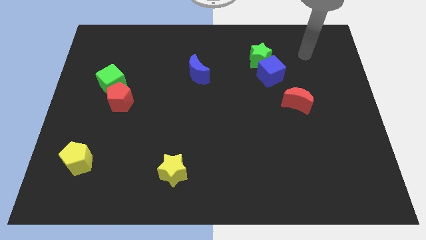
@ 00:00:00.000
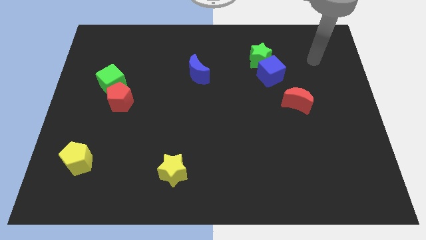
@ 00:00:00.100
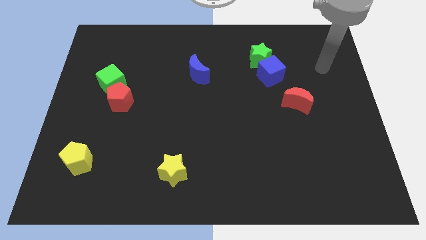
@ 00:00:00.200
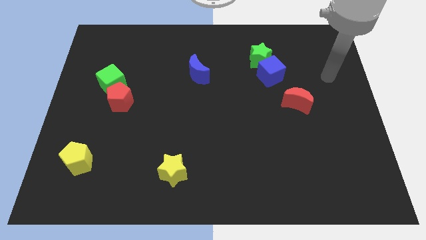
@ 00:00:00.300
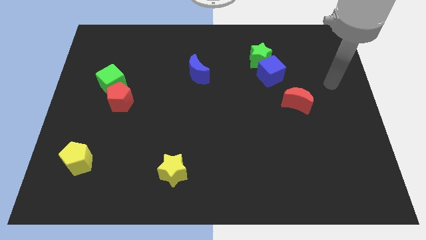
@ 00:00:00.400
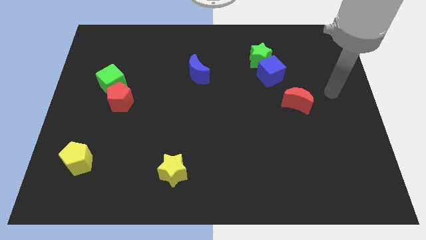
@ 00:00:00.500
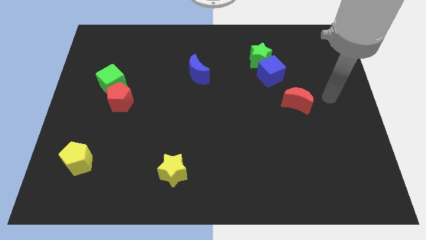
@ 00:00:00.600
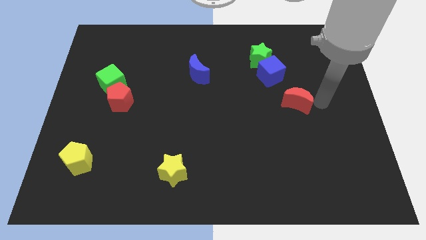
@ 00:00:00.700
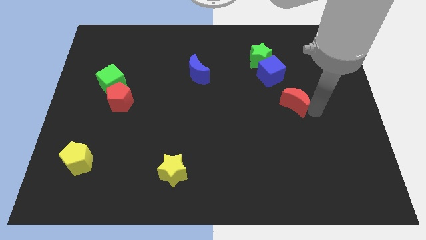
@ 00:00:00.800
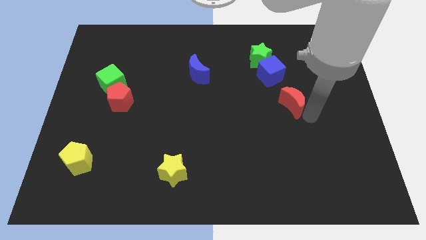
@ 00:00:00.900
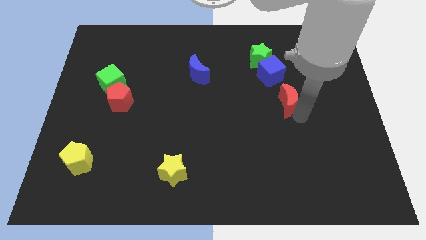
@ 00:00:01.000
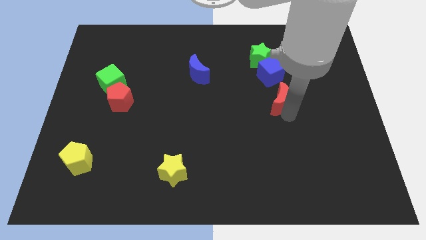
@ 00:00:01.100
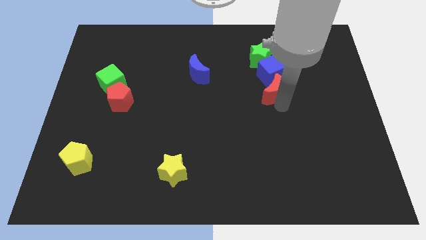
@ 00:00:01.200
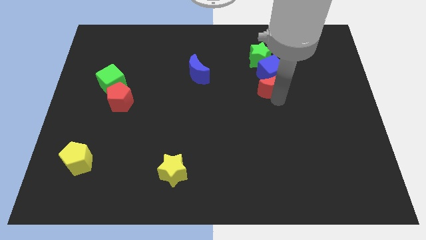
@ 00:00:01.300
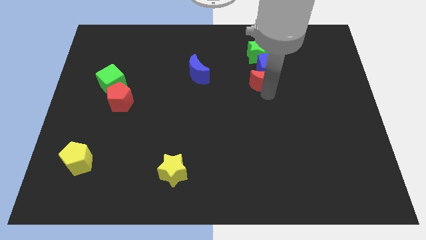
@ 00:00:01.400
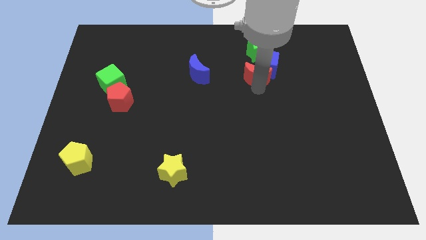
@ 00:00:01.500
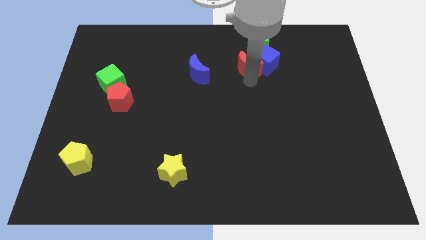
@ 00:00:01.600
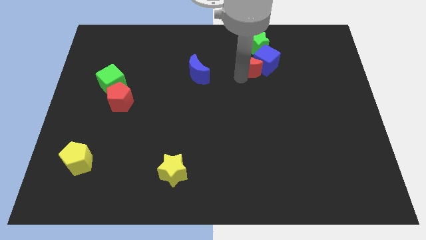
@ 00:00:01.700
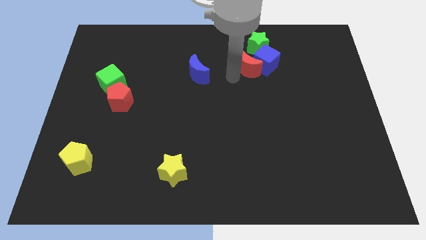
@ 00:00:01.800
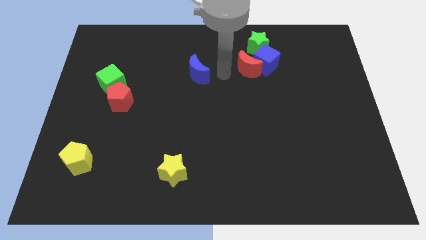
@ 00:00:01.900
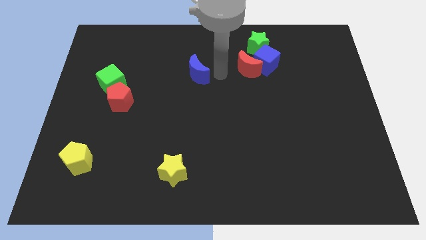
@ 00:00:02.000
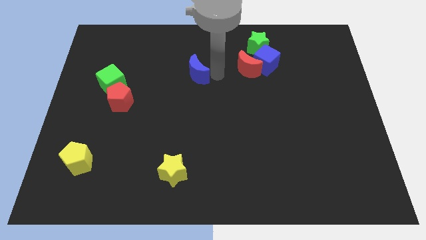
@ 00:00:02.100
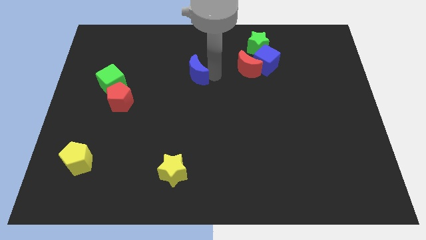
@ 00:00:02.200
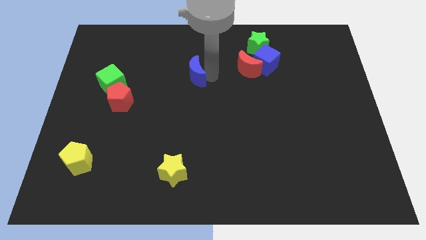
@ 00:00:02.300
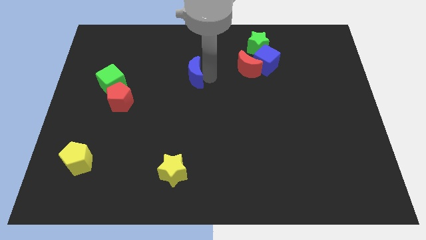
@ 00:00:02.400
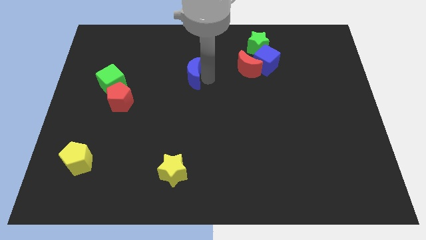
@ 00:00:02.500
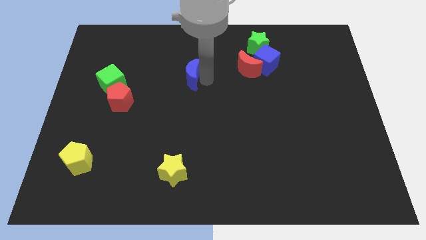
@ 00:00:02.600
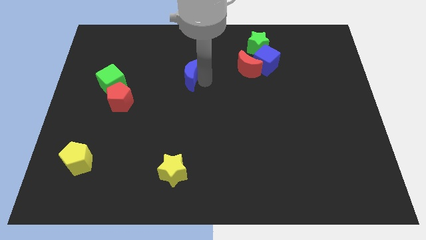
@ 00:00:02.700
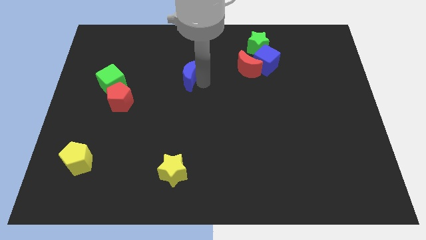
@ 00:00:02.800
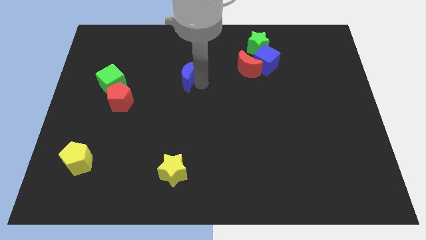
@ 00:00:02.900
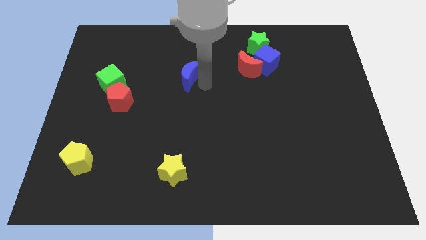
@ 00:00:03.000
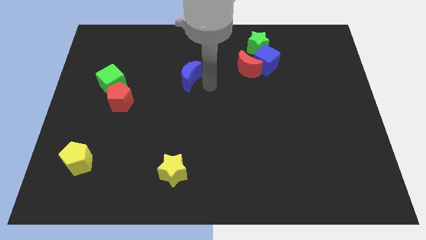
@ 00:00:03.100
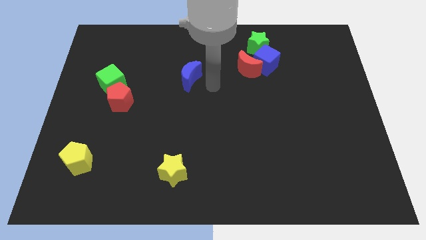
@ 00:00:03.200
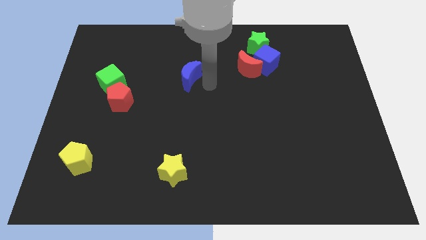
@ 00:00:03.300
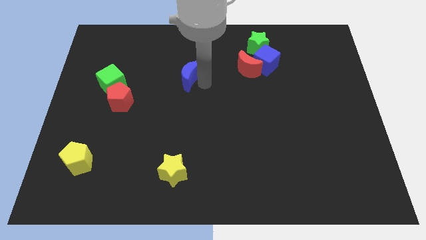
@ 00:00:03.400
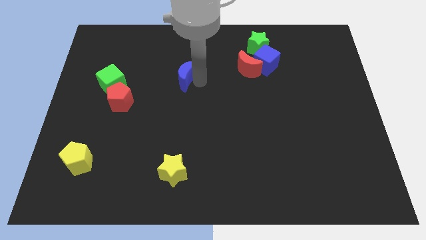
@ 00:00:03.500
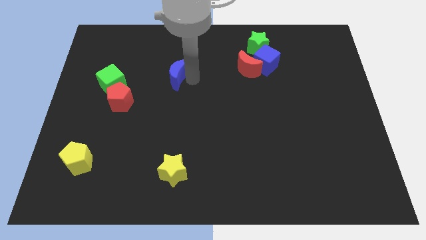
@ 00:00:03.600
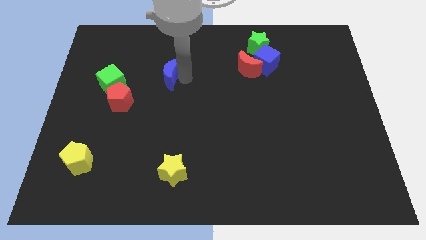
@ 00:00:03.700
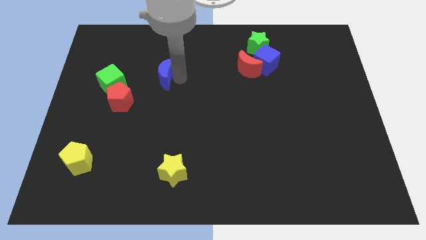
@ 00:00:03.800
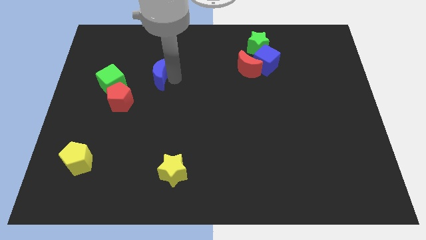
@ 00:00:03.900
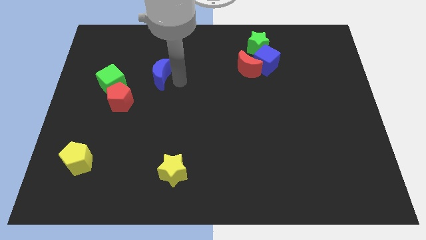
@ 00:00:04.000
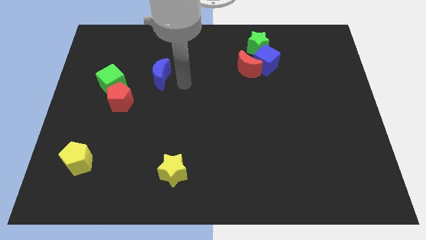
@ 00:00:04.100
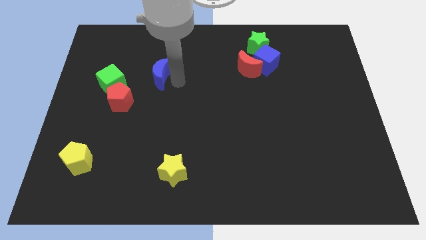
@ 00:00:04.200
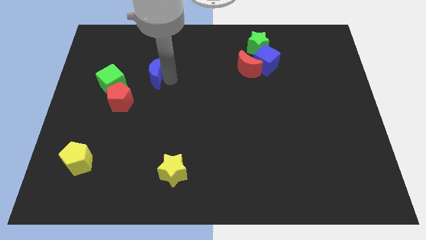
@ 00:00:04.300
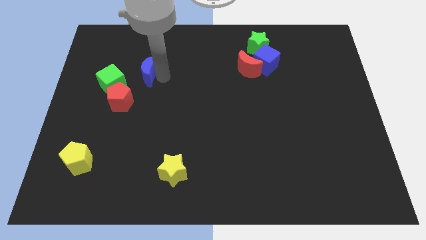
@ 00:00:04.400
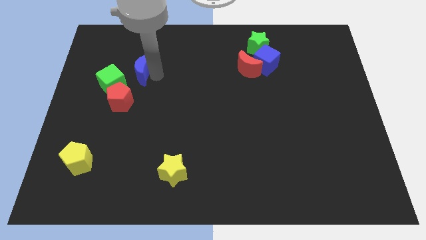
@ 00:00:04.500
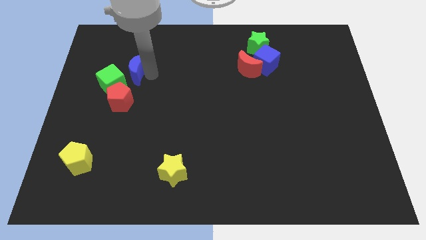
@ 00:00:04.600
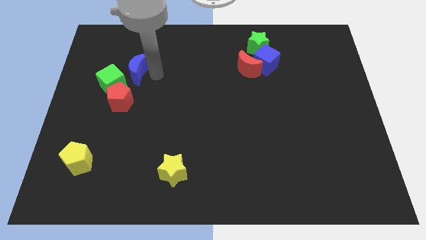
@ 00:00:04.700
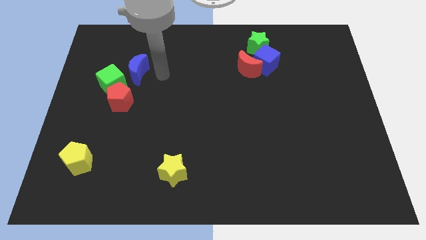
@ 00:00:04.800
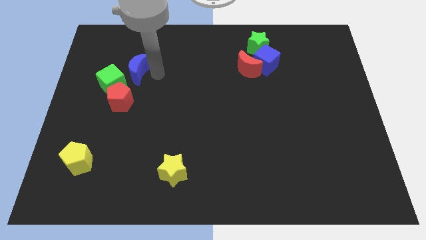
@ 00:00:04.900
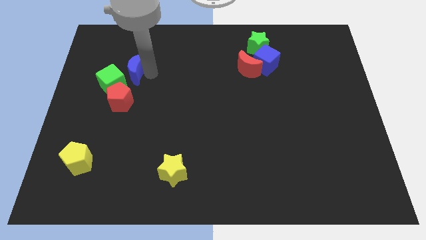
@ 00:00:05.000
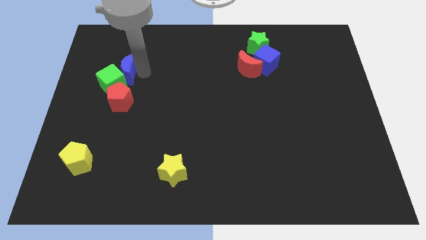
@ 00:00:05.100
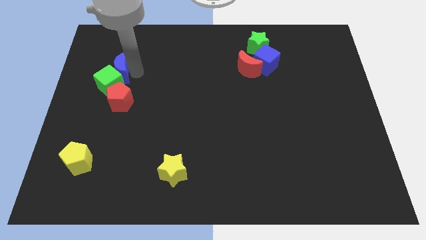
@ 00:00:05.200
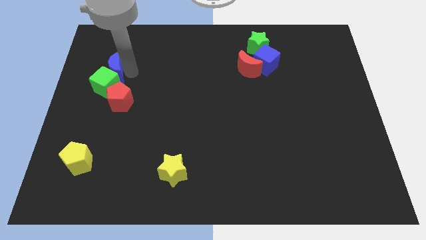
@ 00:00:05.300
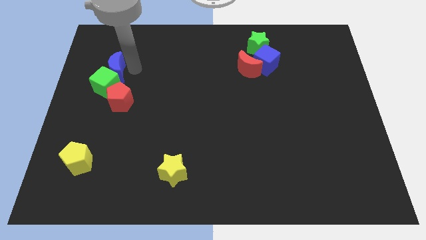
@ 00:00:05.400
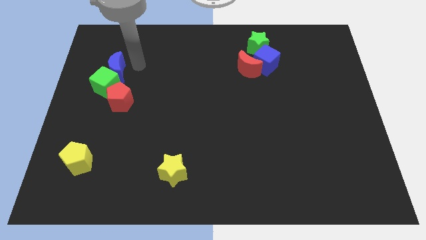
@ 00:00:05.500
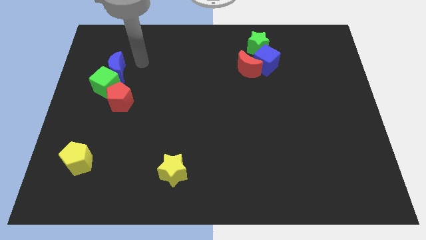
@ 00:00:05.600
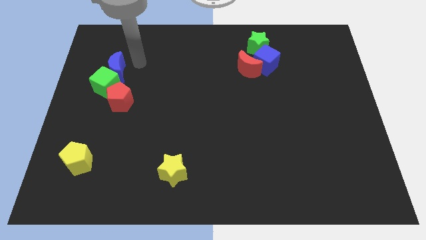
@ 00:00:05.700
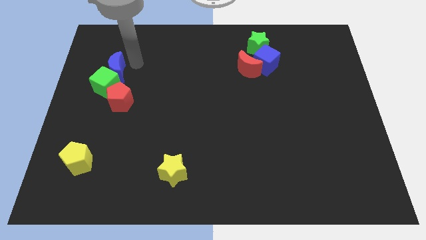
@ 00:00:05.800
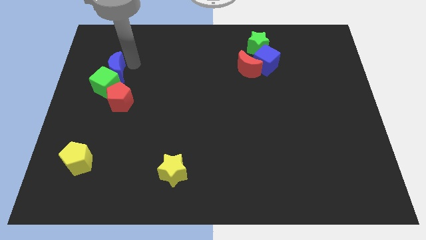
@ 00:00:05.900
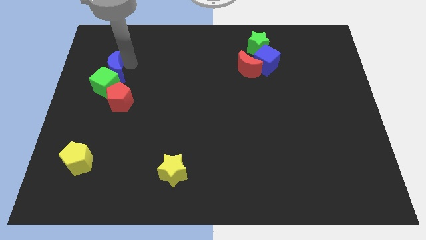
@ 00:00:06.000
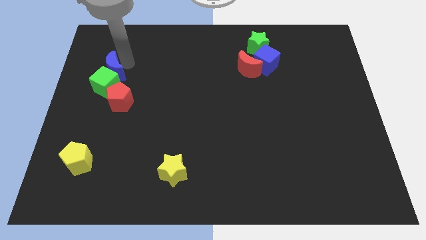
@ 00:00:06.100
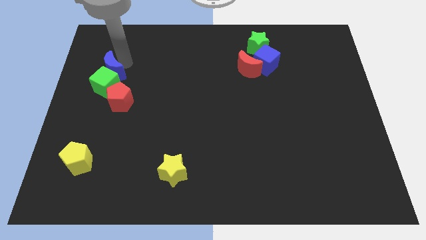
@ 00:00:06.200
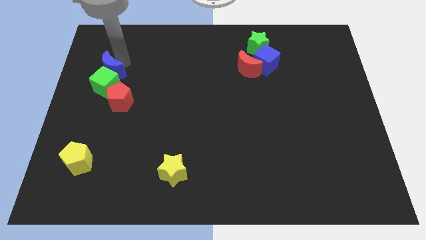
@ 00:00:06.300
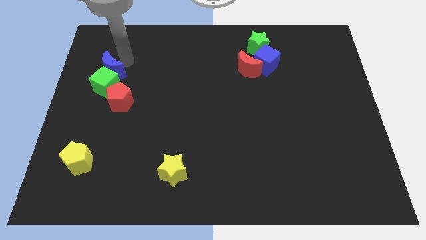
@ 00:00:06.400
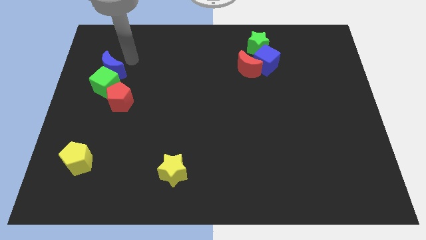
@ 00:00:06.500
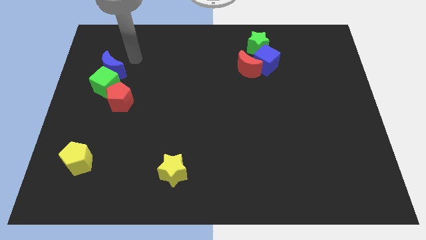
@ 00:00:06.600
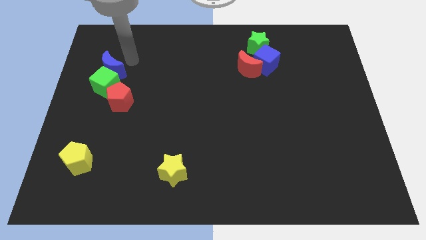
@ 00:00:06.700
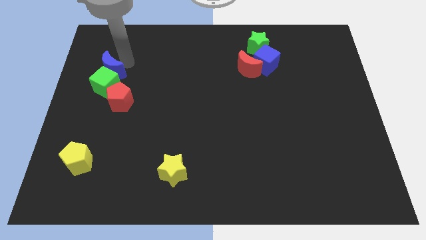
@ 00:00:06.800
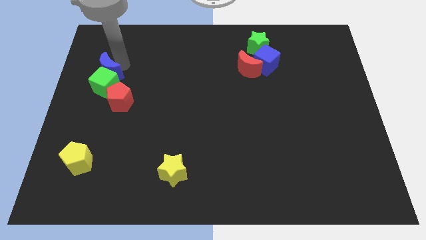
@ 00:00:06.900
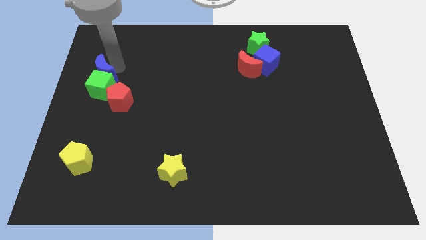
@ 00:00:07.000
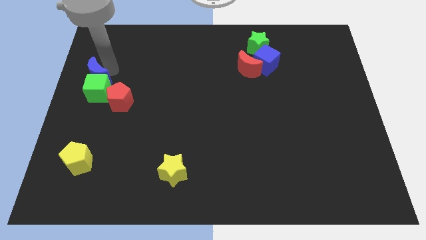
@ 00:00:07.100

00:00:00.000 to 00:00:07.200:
move the blue moon to the left side
